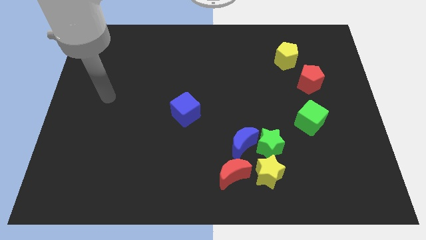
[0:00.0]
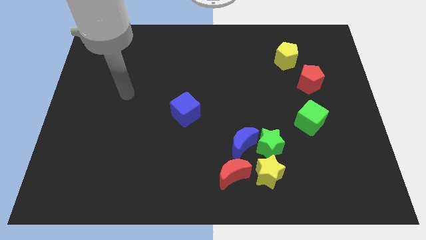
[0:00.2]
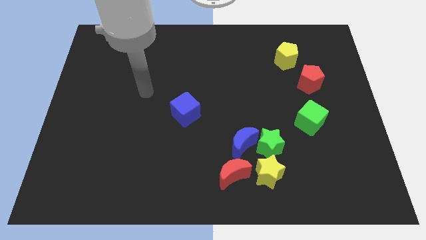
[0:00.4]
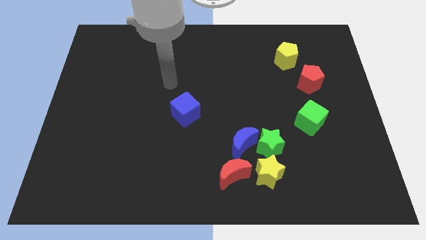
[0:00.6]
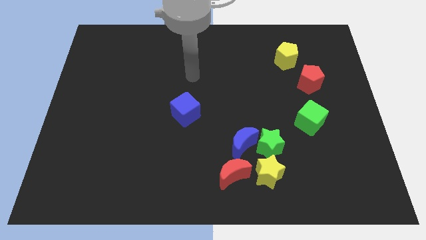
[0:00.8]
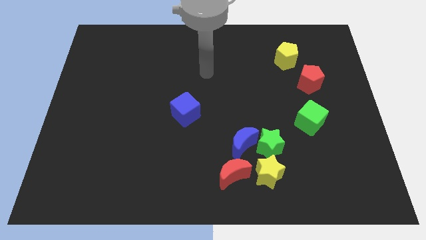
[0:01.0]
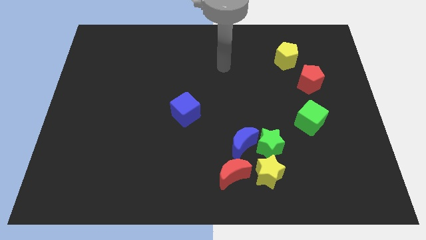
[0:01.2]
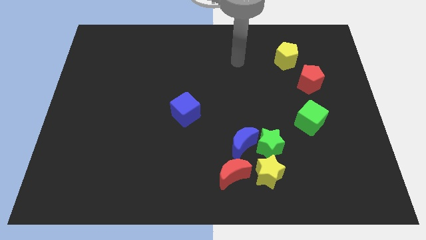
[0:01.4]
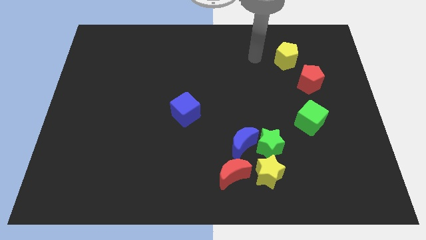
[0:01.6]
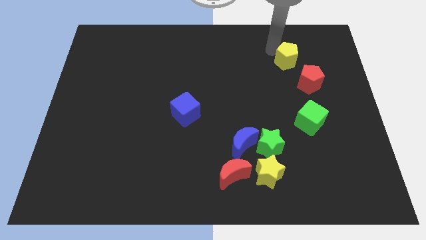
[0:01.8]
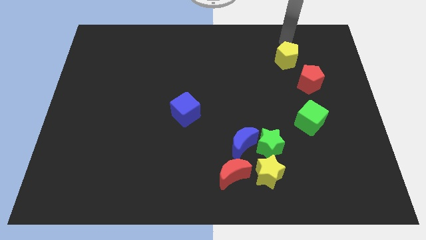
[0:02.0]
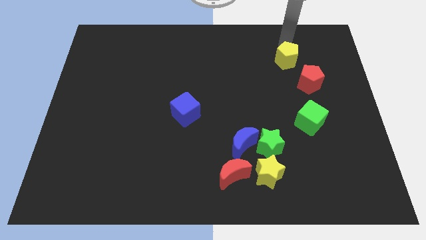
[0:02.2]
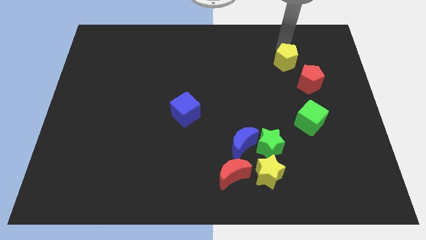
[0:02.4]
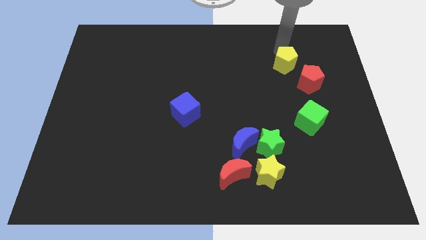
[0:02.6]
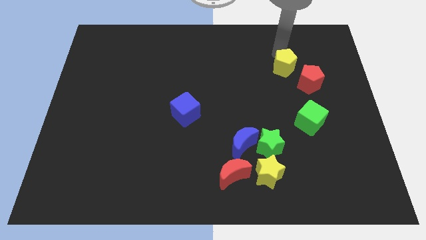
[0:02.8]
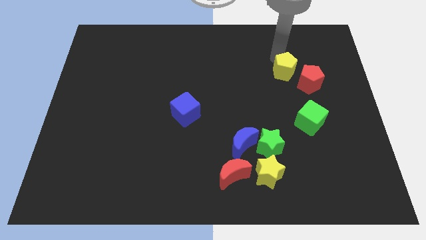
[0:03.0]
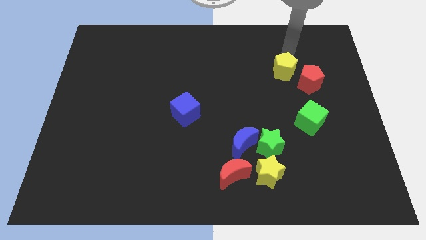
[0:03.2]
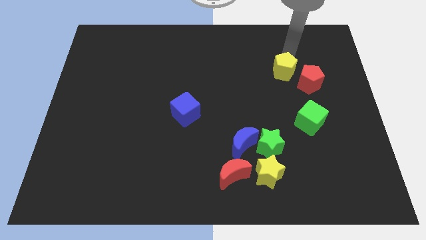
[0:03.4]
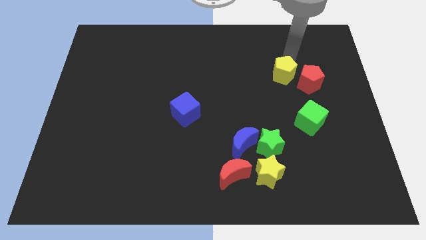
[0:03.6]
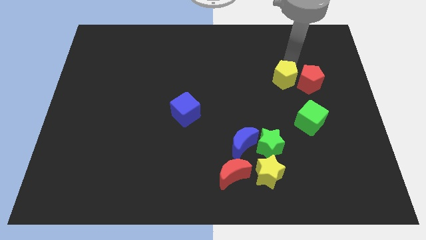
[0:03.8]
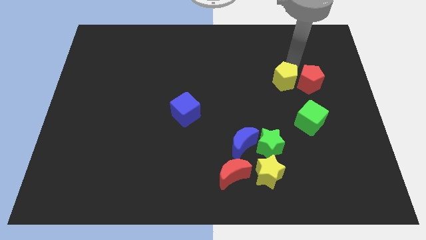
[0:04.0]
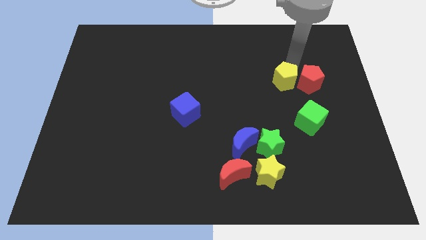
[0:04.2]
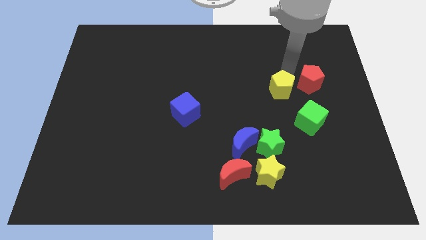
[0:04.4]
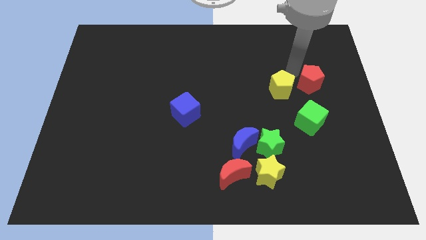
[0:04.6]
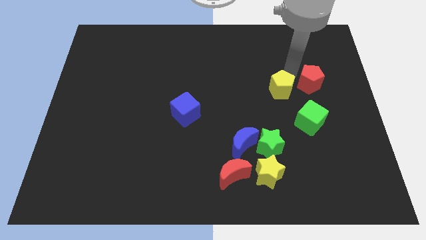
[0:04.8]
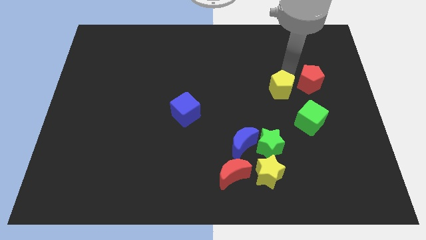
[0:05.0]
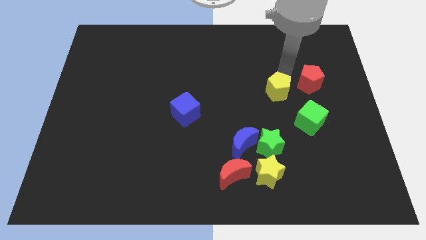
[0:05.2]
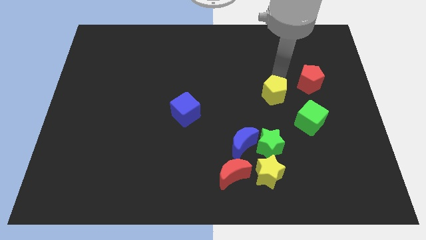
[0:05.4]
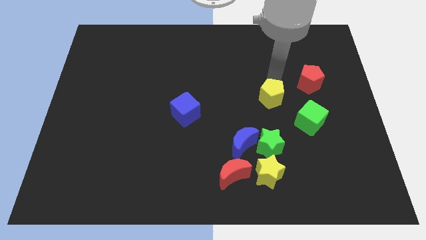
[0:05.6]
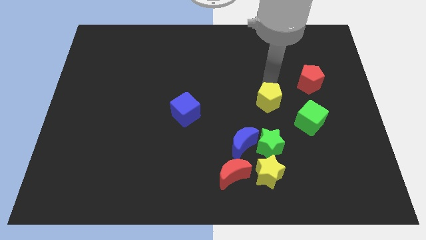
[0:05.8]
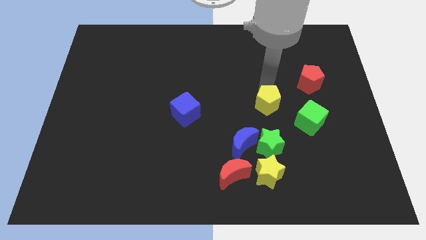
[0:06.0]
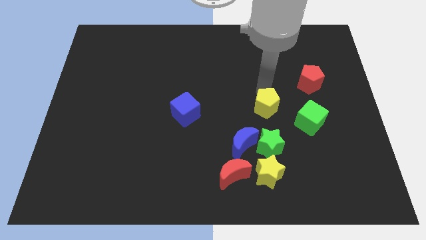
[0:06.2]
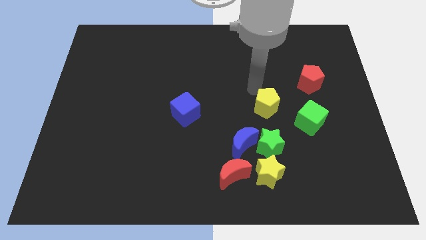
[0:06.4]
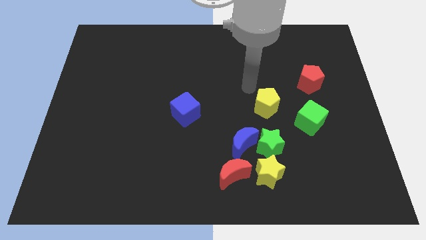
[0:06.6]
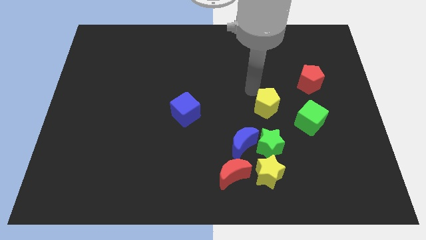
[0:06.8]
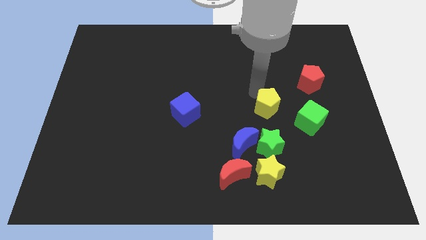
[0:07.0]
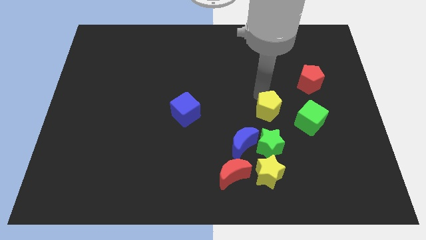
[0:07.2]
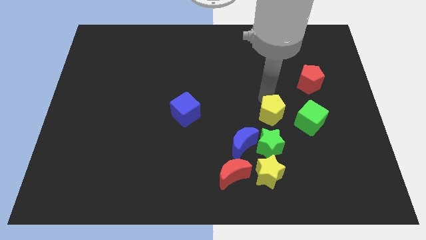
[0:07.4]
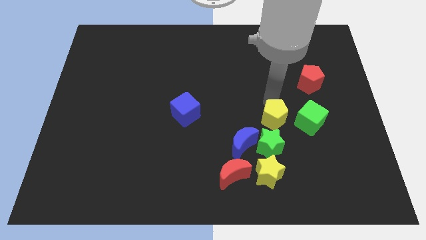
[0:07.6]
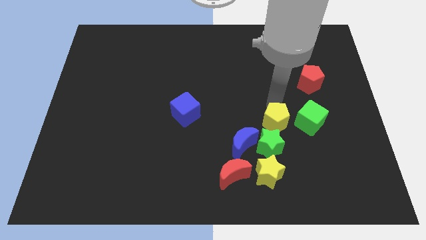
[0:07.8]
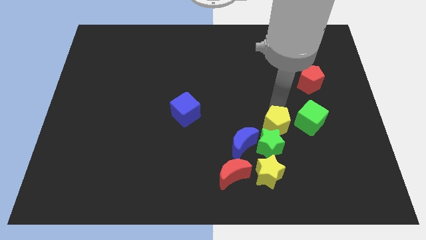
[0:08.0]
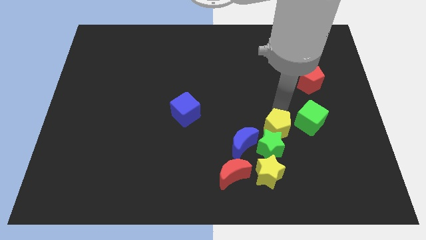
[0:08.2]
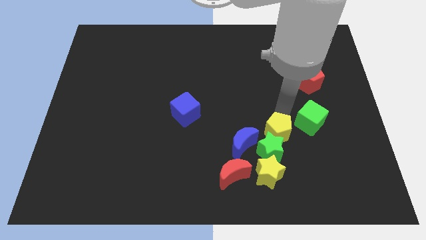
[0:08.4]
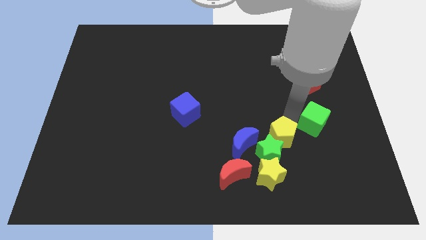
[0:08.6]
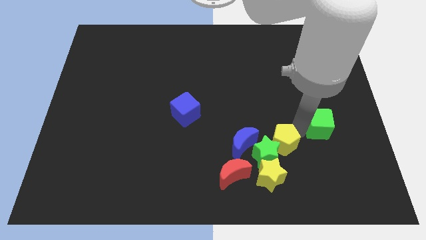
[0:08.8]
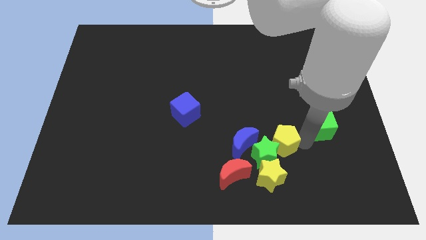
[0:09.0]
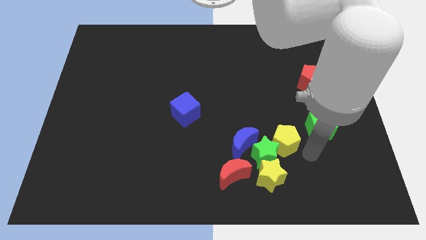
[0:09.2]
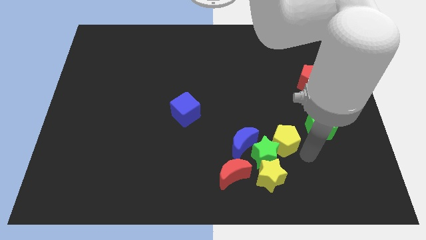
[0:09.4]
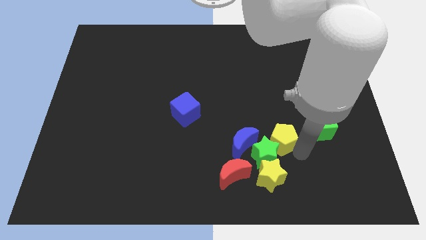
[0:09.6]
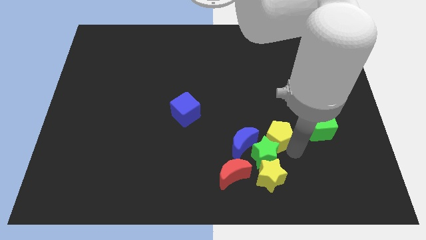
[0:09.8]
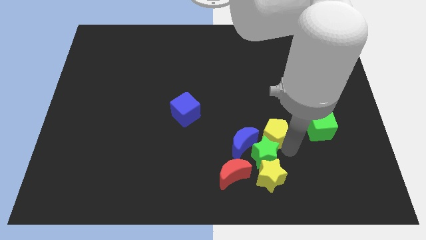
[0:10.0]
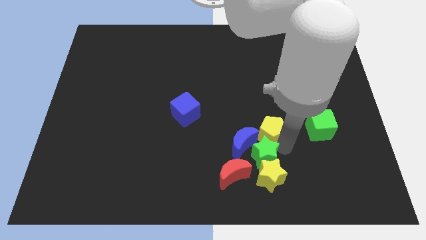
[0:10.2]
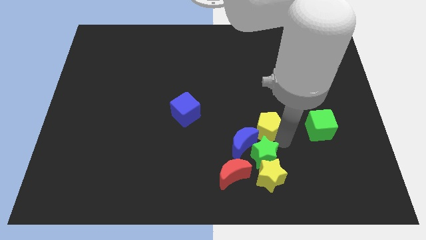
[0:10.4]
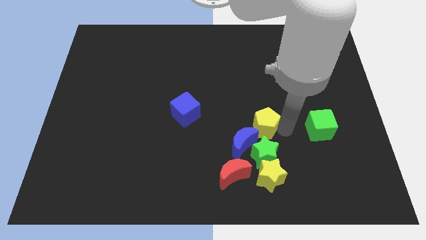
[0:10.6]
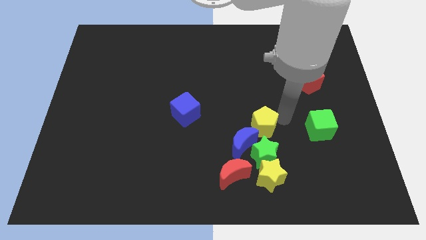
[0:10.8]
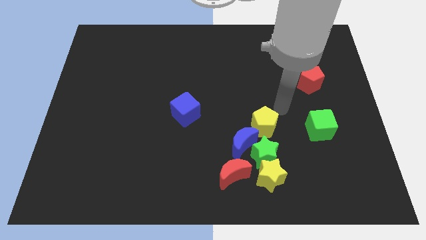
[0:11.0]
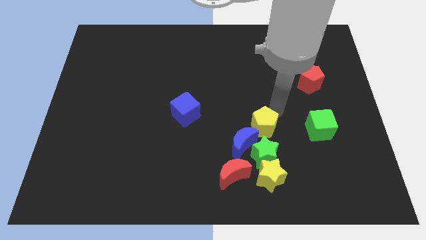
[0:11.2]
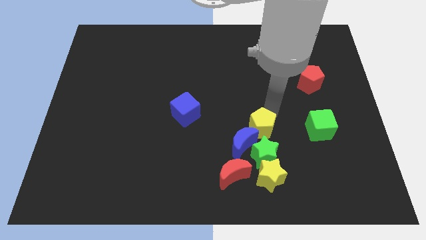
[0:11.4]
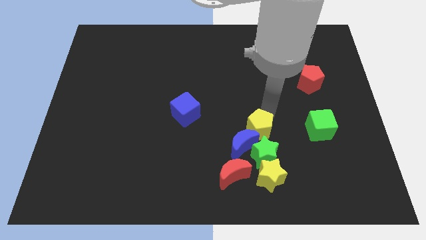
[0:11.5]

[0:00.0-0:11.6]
push the yellow pentagon towards the blue moon

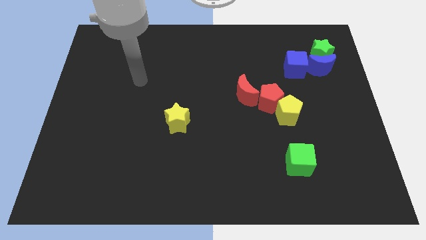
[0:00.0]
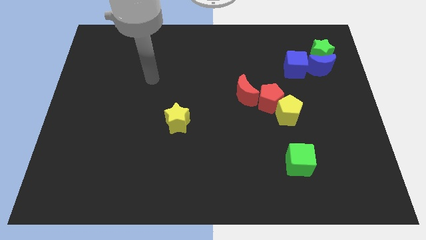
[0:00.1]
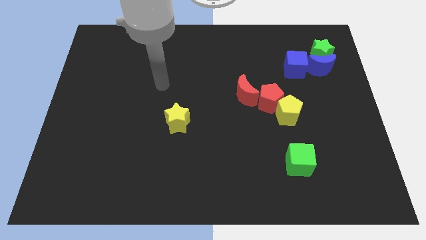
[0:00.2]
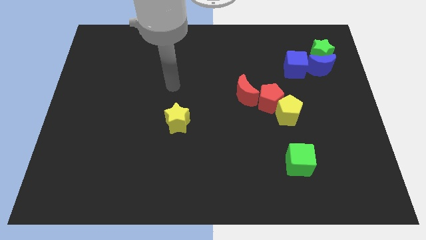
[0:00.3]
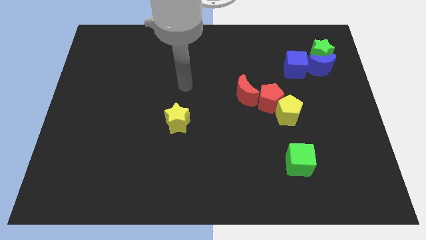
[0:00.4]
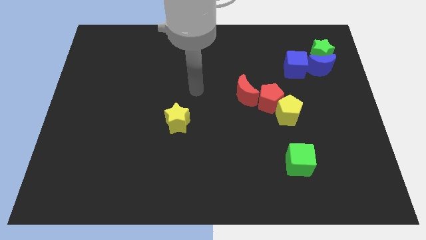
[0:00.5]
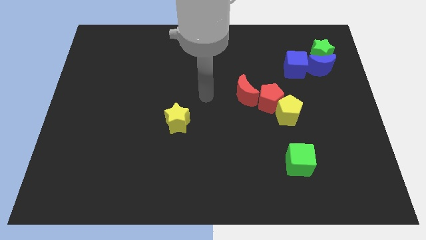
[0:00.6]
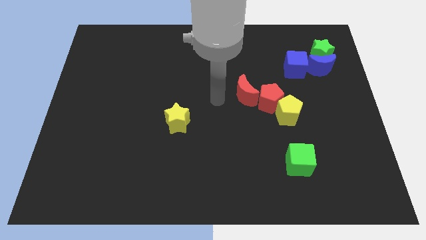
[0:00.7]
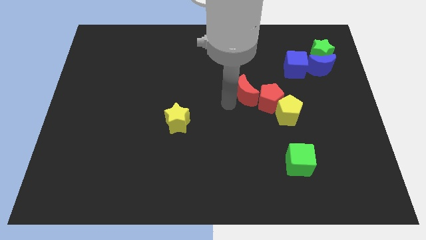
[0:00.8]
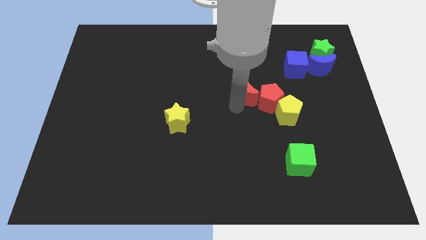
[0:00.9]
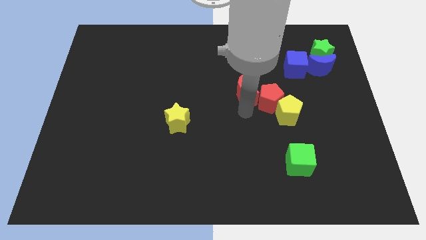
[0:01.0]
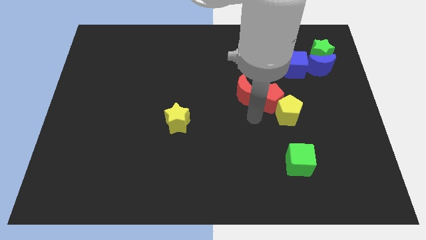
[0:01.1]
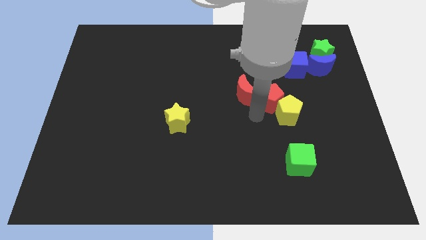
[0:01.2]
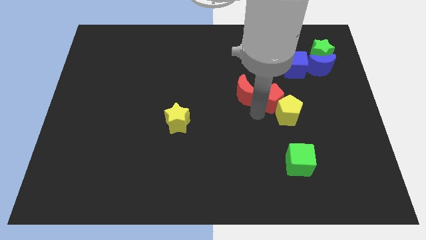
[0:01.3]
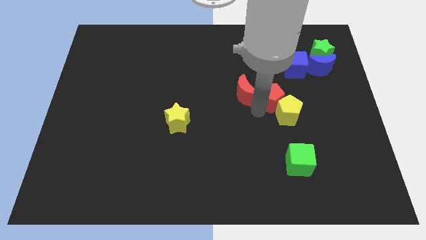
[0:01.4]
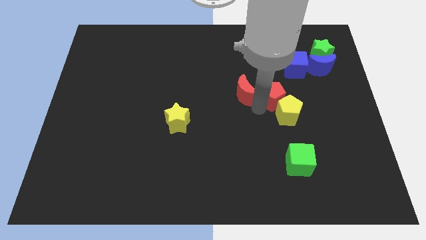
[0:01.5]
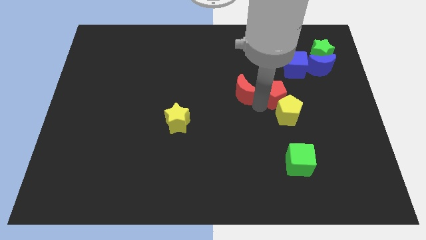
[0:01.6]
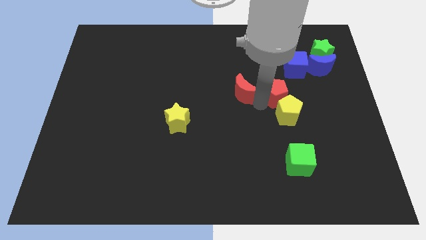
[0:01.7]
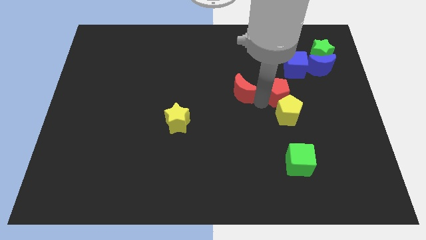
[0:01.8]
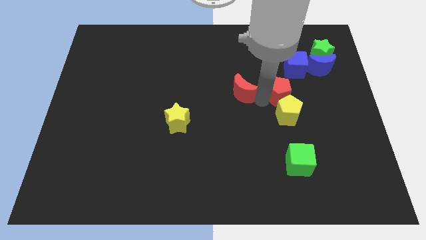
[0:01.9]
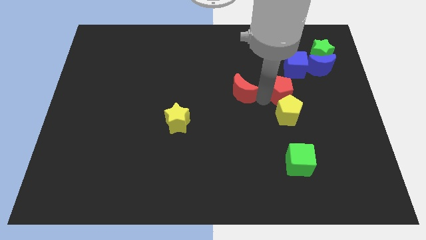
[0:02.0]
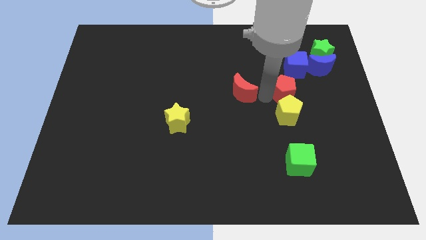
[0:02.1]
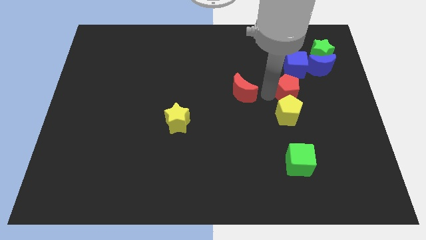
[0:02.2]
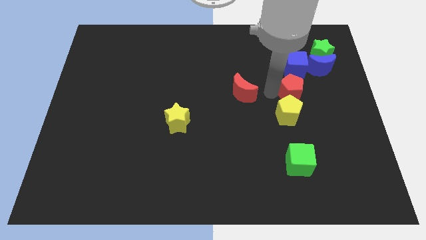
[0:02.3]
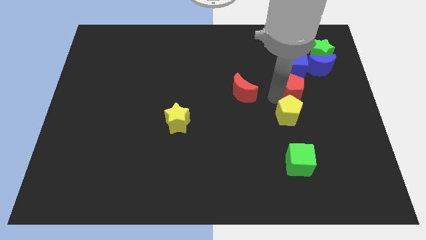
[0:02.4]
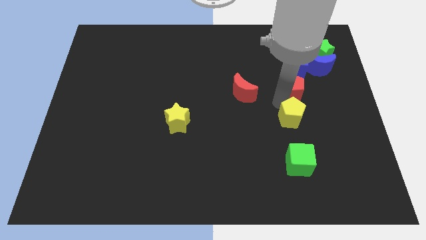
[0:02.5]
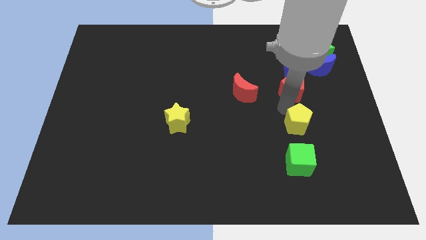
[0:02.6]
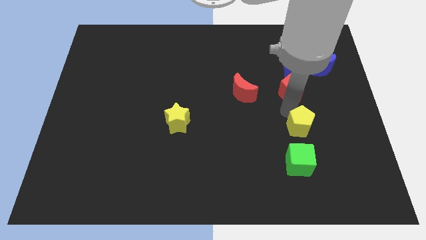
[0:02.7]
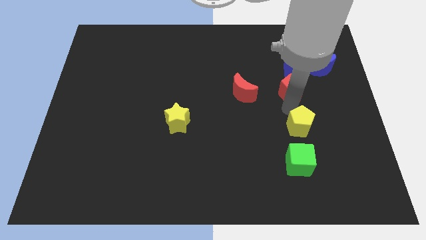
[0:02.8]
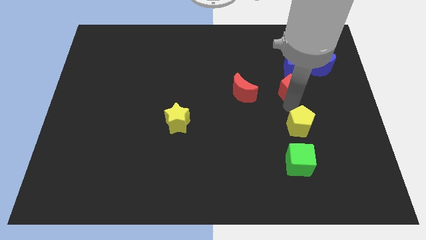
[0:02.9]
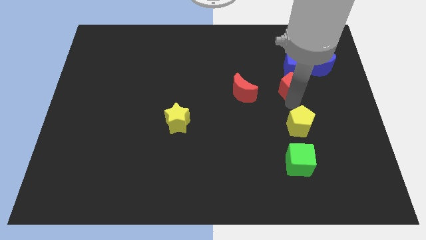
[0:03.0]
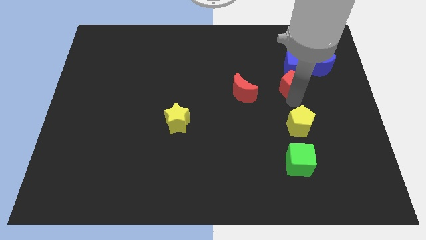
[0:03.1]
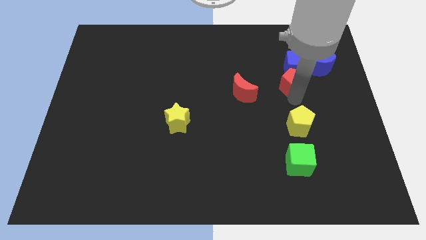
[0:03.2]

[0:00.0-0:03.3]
put the red pentagon towards the blue cube
